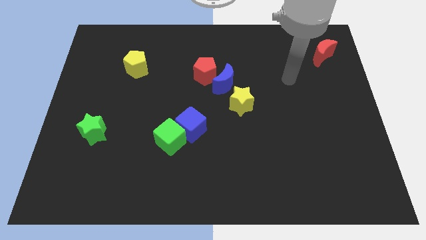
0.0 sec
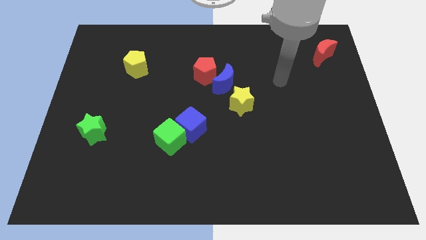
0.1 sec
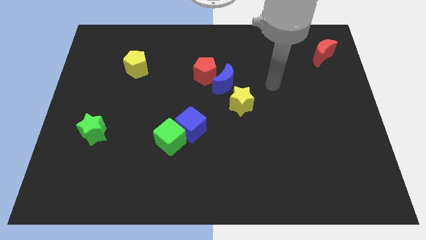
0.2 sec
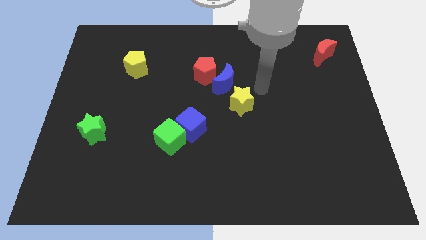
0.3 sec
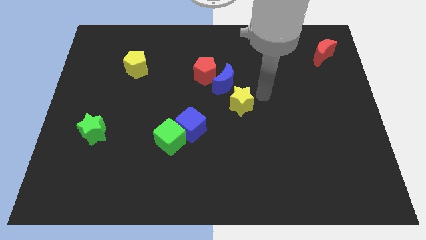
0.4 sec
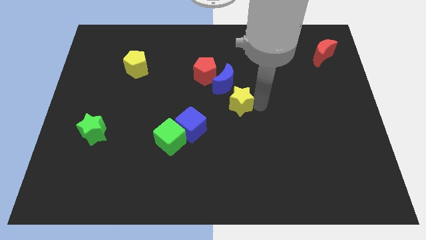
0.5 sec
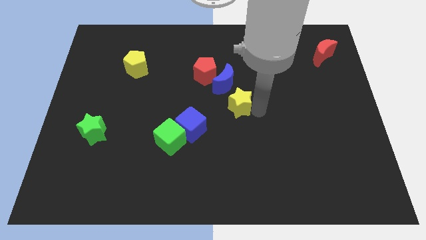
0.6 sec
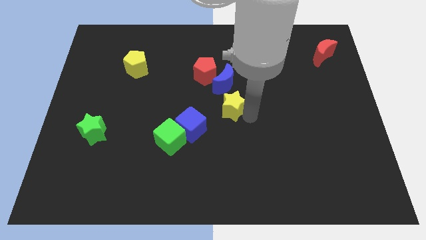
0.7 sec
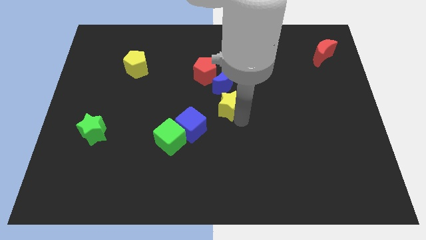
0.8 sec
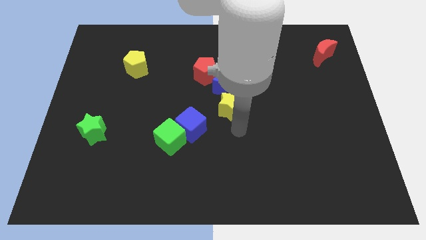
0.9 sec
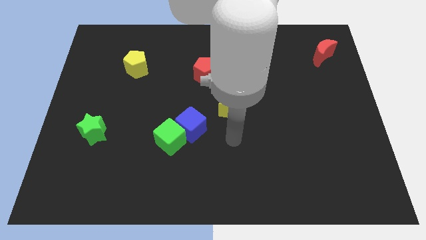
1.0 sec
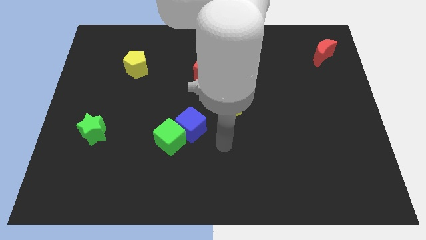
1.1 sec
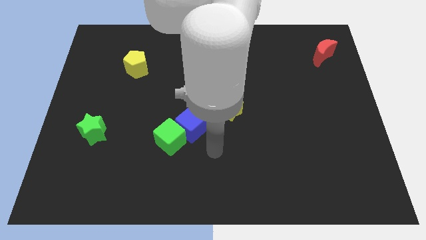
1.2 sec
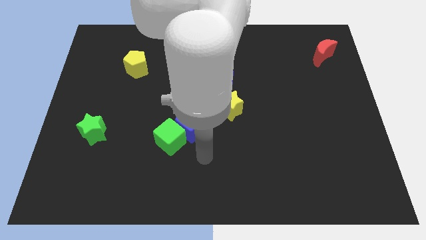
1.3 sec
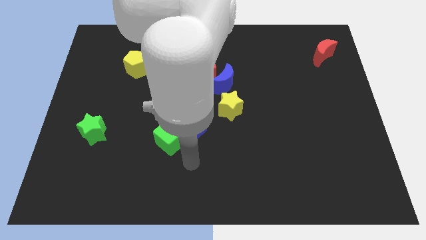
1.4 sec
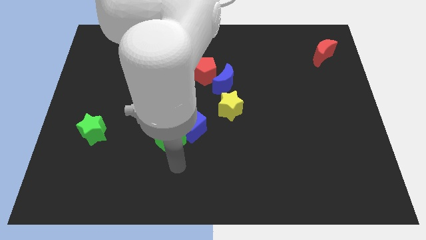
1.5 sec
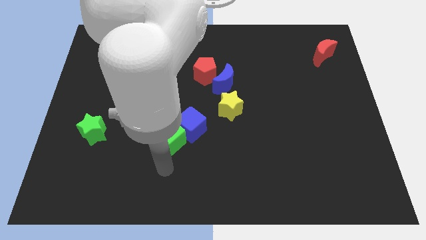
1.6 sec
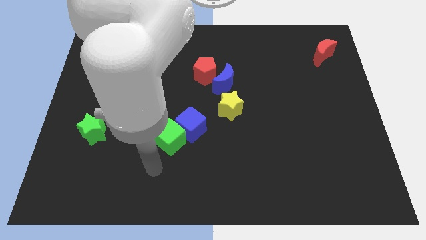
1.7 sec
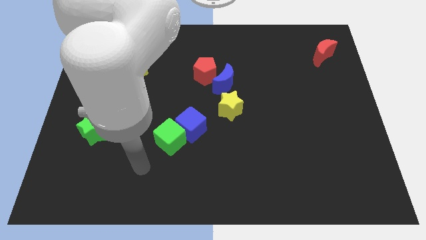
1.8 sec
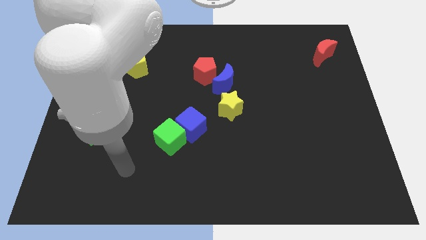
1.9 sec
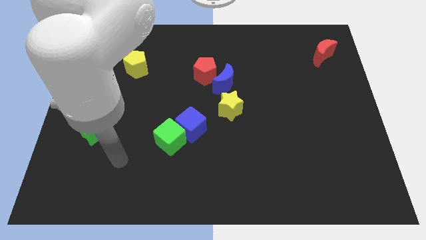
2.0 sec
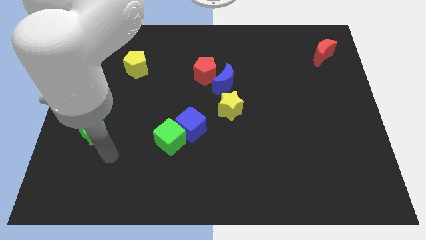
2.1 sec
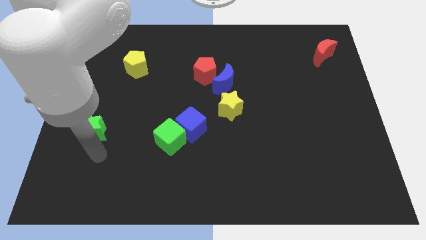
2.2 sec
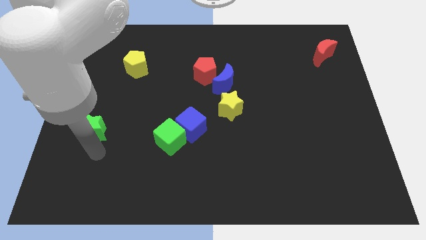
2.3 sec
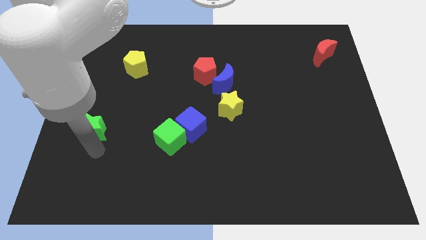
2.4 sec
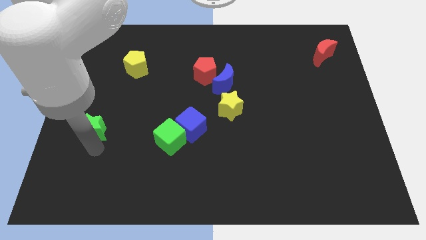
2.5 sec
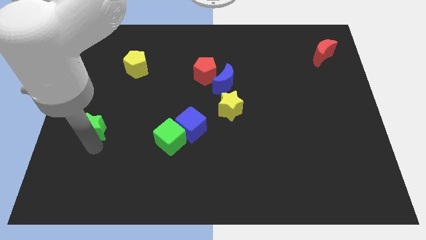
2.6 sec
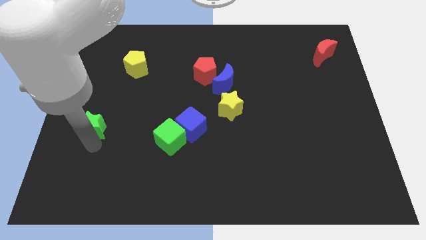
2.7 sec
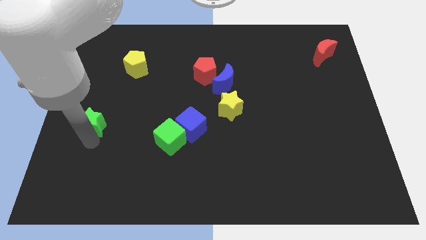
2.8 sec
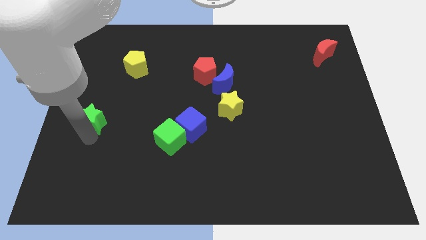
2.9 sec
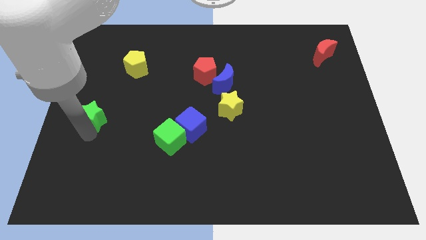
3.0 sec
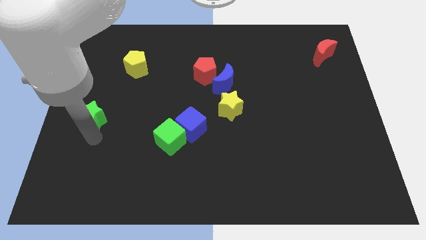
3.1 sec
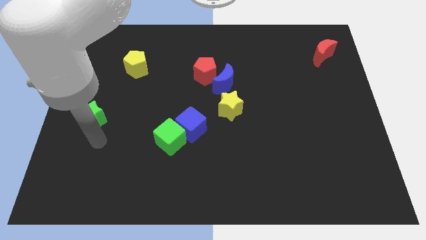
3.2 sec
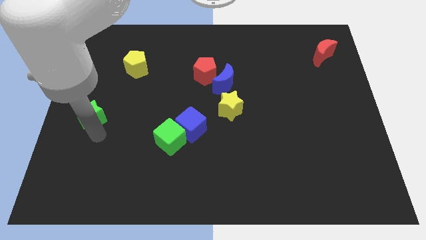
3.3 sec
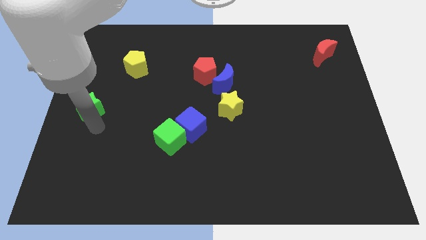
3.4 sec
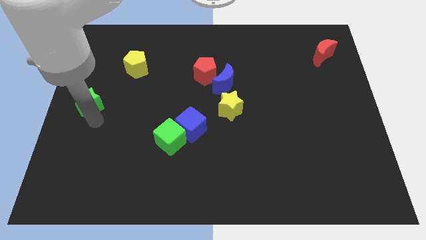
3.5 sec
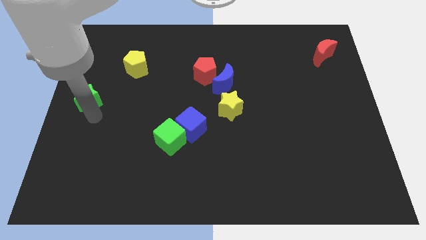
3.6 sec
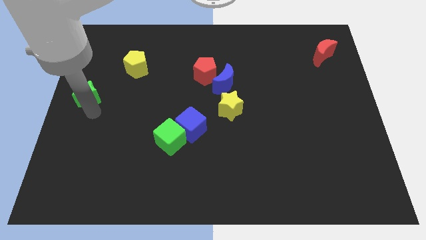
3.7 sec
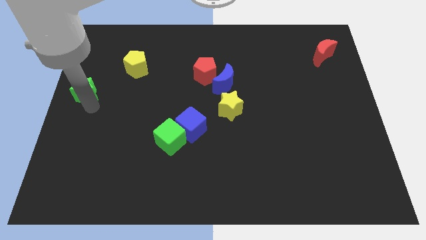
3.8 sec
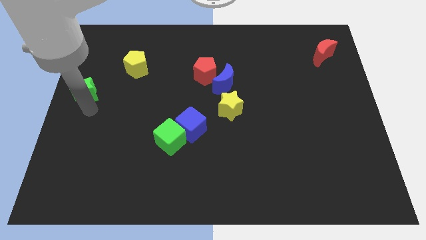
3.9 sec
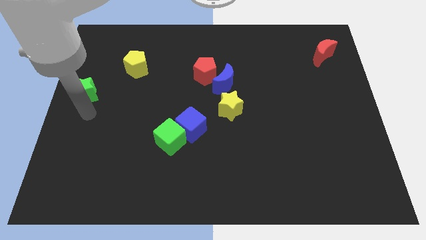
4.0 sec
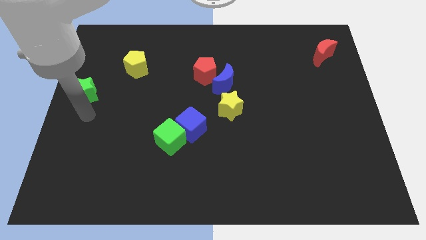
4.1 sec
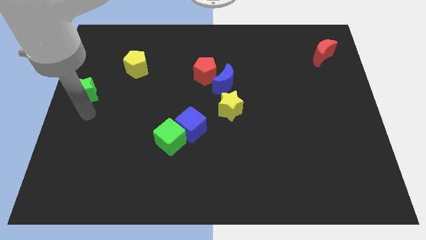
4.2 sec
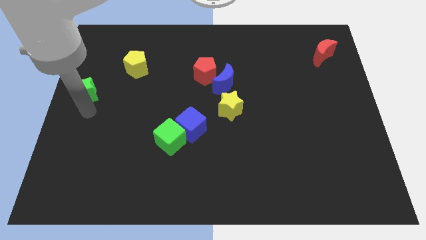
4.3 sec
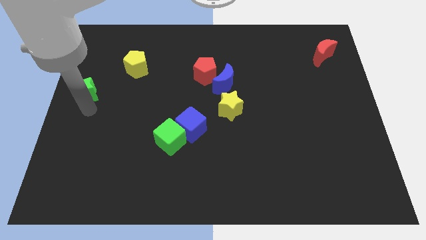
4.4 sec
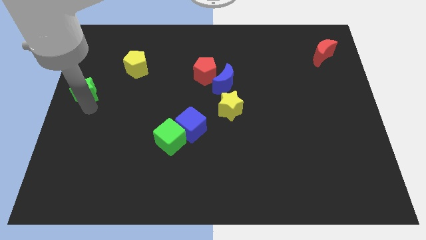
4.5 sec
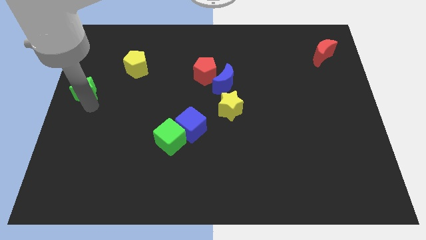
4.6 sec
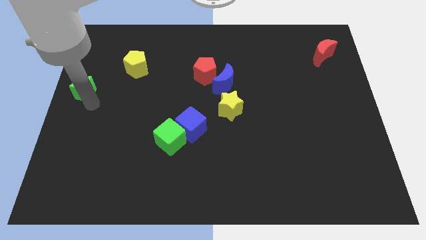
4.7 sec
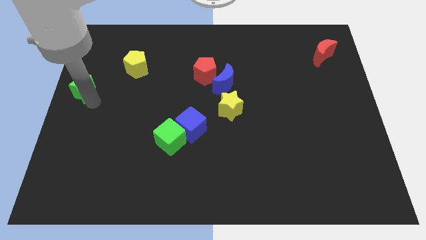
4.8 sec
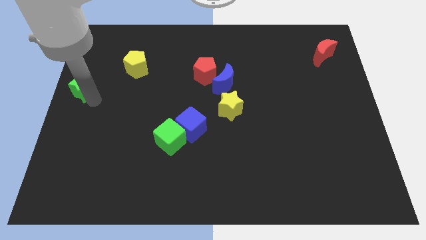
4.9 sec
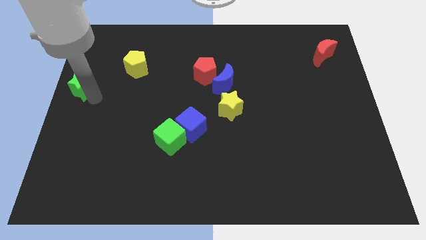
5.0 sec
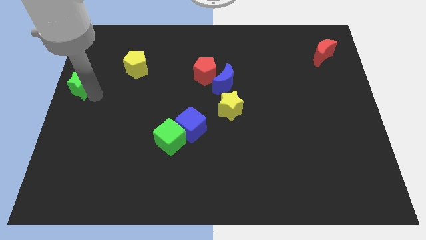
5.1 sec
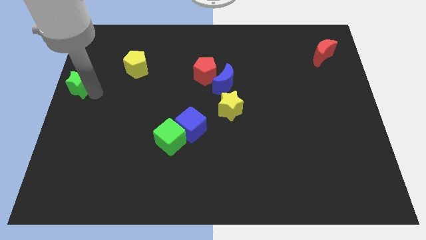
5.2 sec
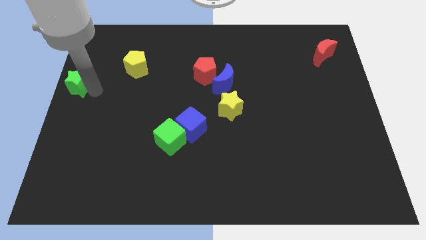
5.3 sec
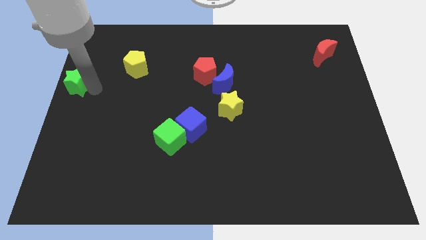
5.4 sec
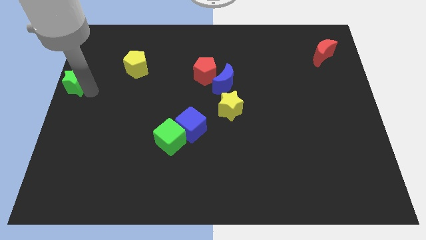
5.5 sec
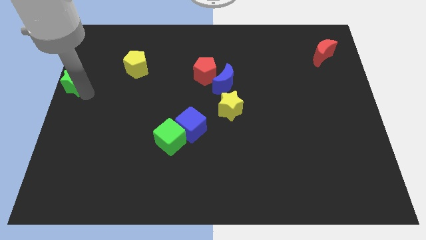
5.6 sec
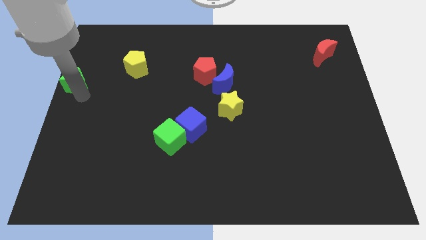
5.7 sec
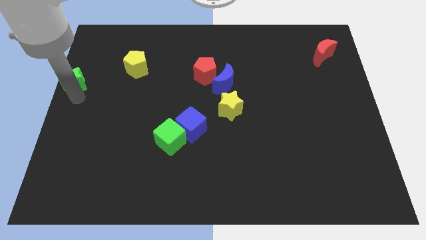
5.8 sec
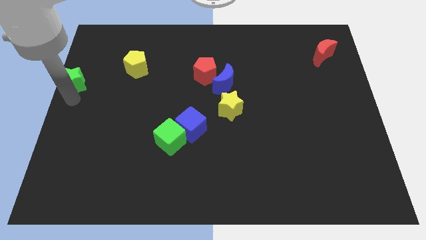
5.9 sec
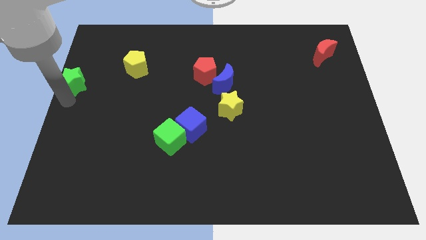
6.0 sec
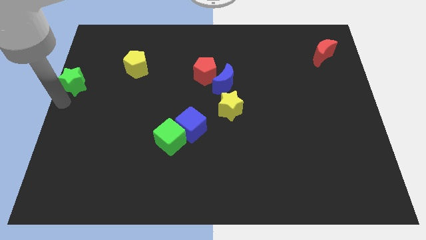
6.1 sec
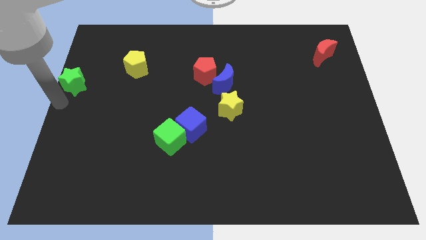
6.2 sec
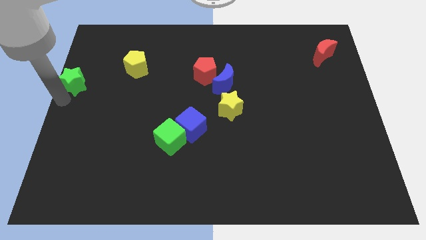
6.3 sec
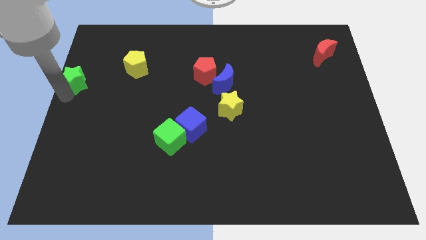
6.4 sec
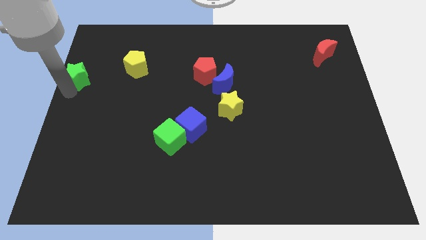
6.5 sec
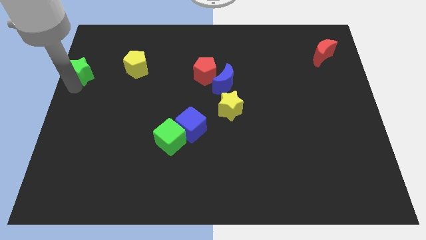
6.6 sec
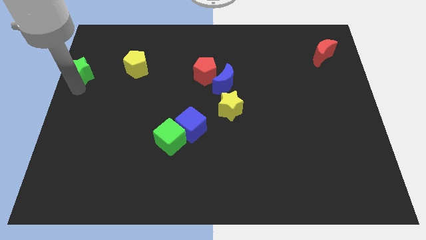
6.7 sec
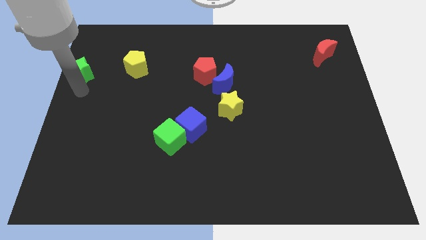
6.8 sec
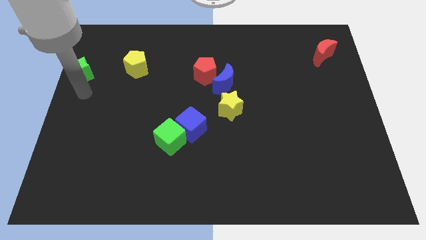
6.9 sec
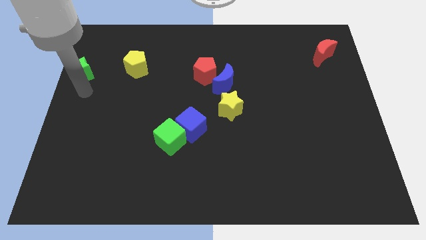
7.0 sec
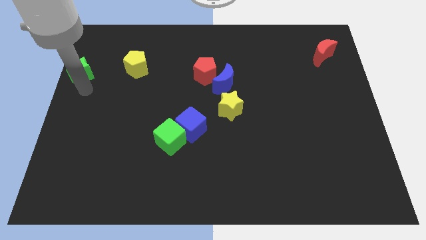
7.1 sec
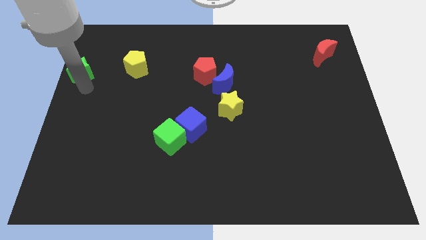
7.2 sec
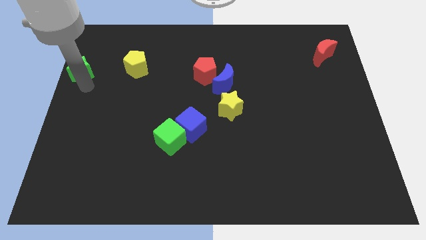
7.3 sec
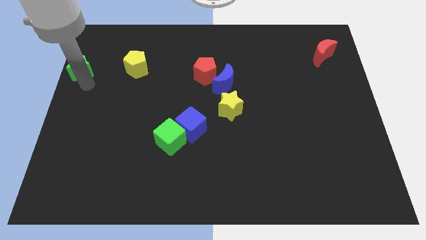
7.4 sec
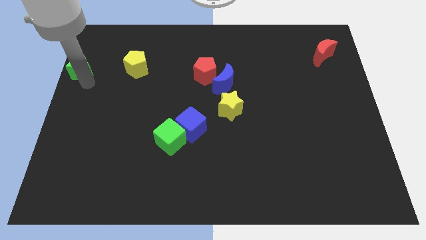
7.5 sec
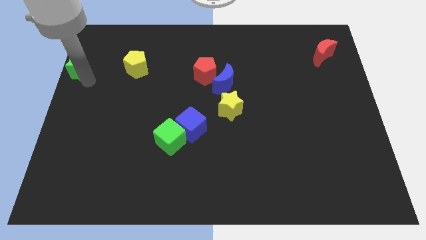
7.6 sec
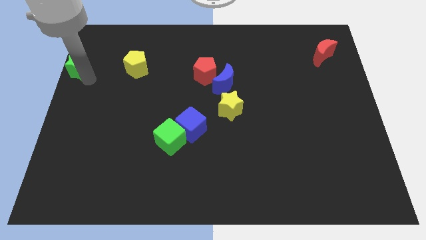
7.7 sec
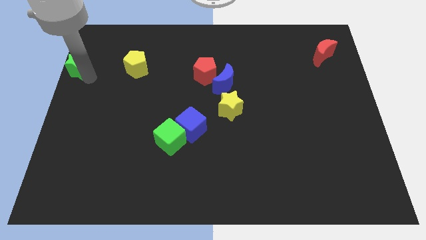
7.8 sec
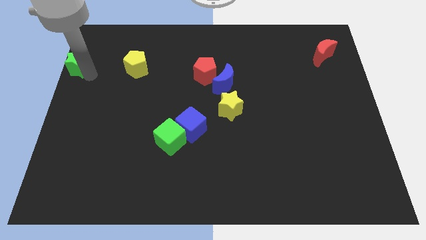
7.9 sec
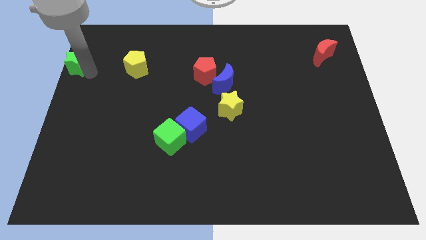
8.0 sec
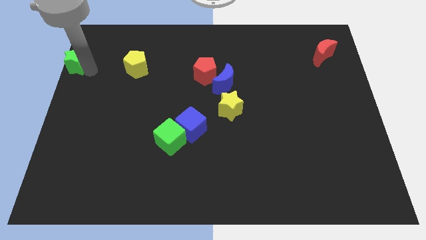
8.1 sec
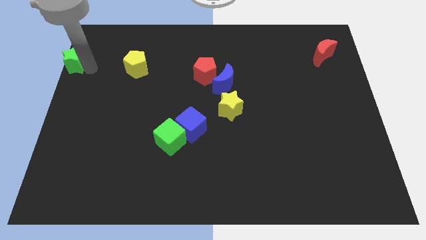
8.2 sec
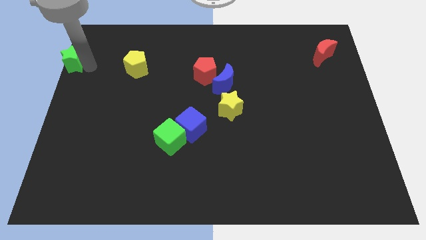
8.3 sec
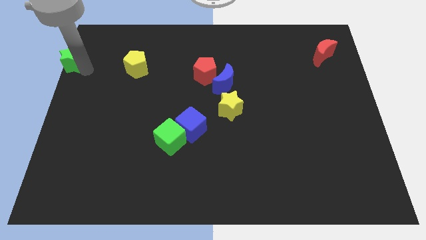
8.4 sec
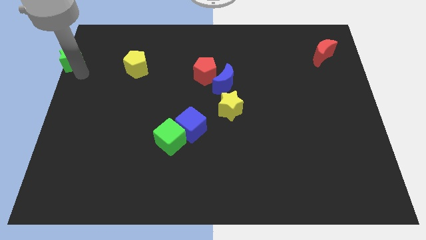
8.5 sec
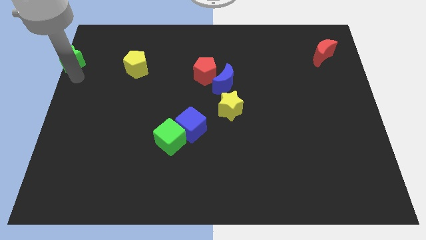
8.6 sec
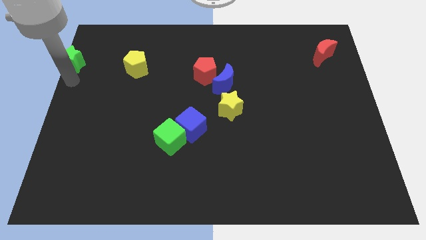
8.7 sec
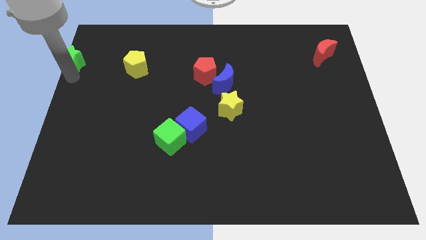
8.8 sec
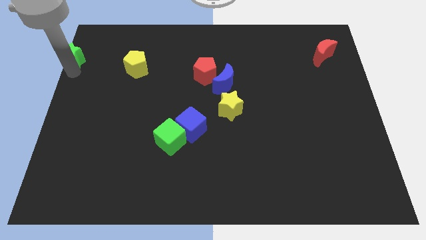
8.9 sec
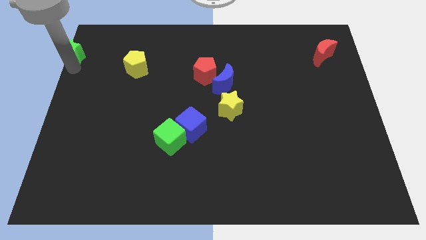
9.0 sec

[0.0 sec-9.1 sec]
move the green star to the top left corner
